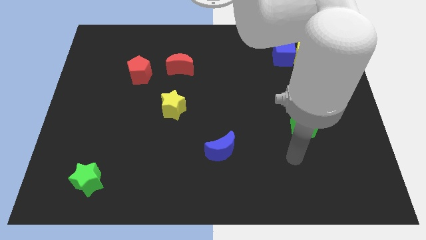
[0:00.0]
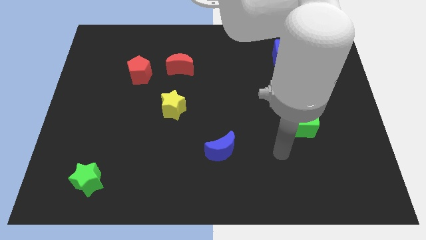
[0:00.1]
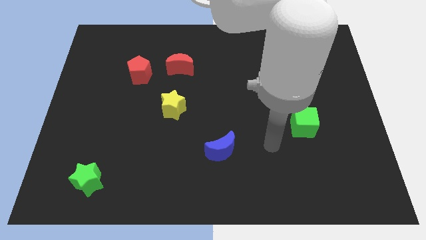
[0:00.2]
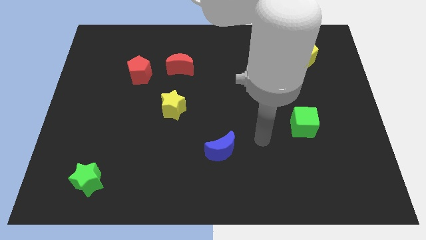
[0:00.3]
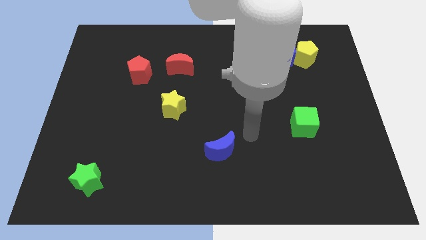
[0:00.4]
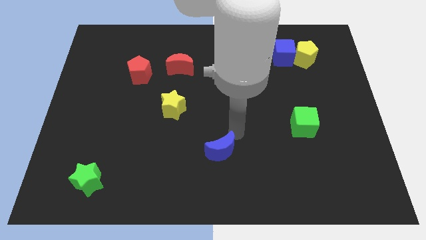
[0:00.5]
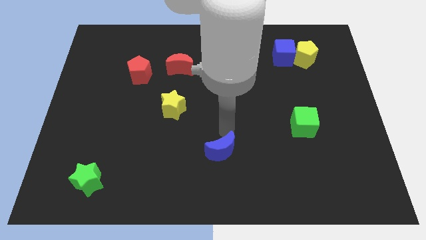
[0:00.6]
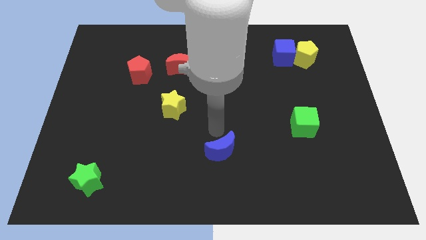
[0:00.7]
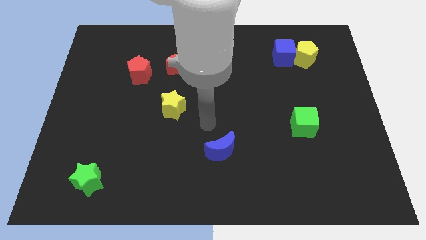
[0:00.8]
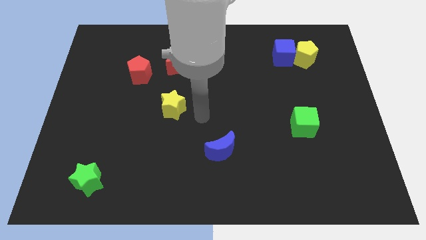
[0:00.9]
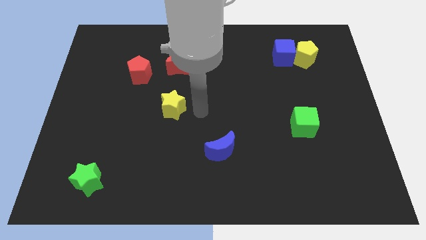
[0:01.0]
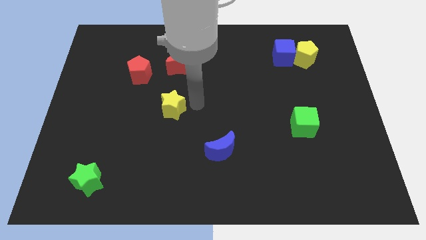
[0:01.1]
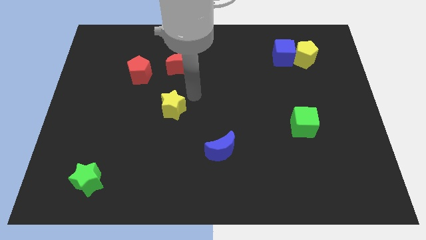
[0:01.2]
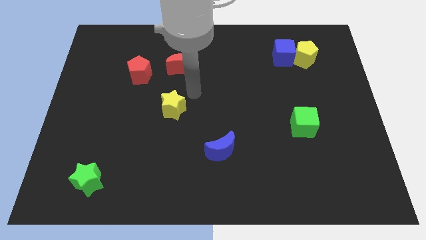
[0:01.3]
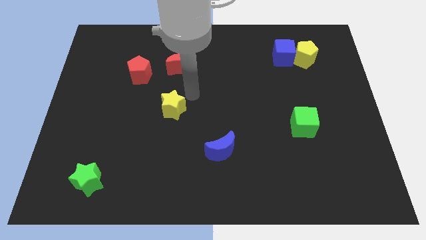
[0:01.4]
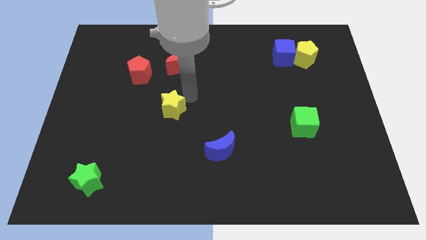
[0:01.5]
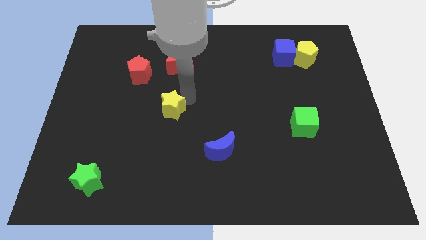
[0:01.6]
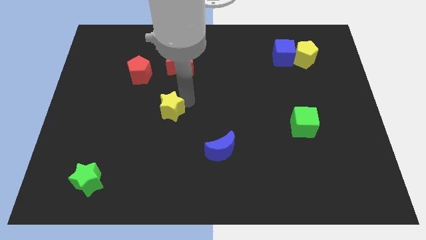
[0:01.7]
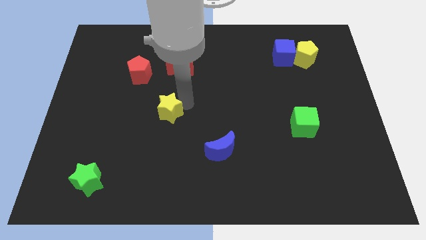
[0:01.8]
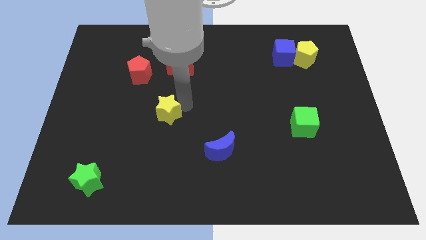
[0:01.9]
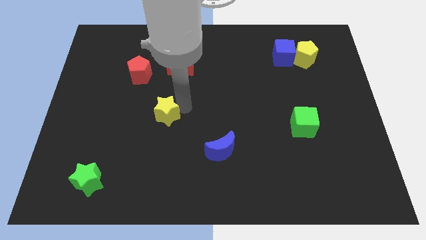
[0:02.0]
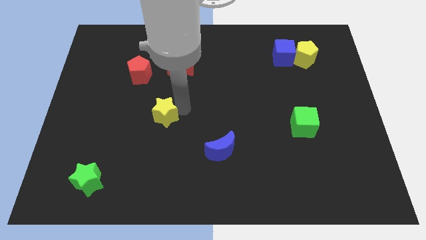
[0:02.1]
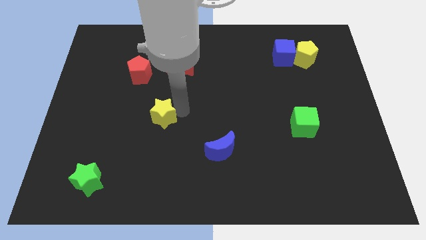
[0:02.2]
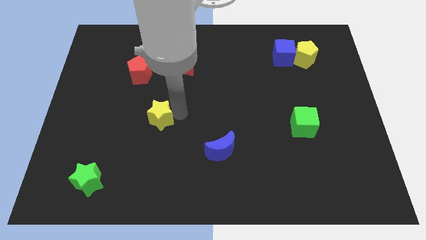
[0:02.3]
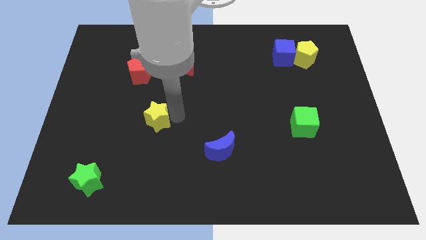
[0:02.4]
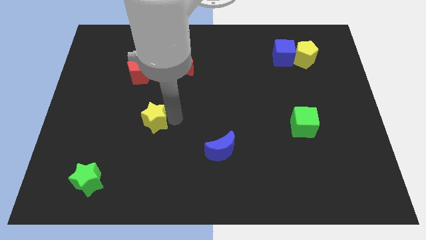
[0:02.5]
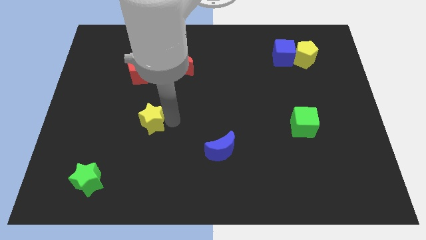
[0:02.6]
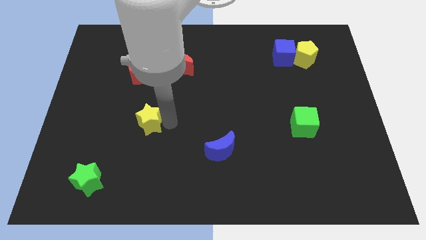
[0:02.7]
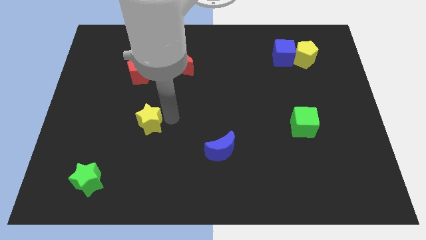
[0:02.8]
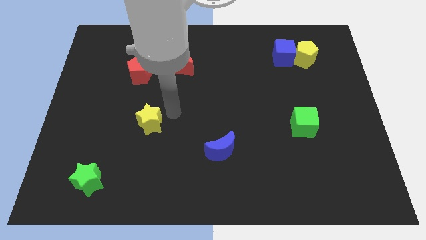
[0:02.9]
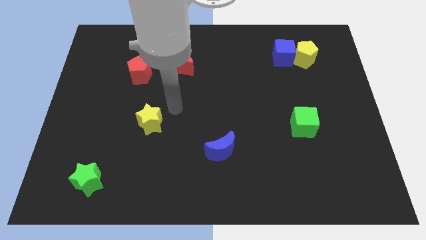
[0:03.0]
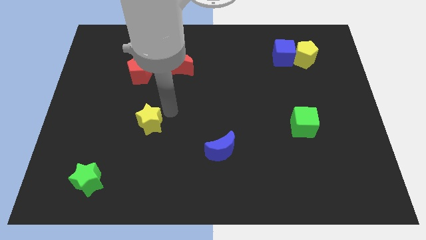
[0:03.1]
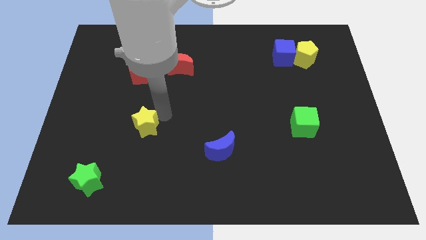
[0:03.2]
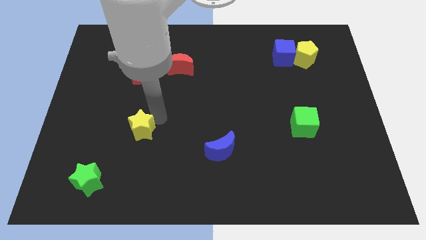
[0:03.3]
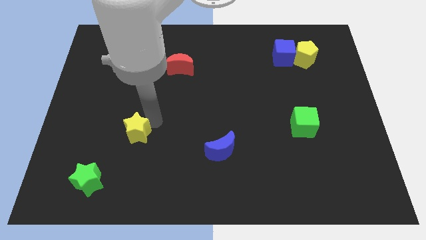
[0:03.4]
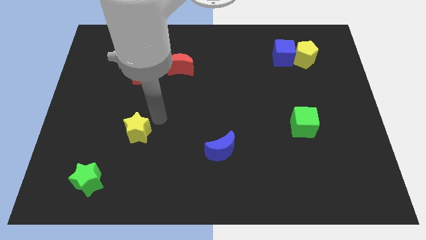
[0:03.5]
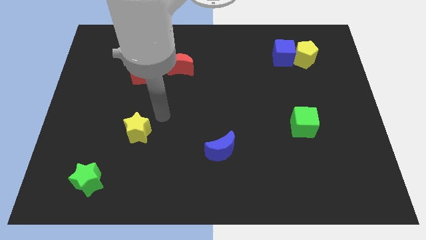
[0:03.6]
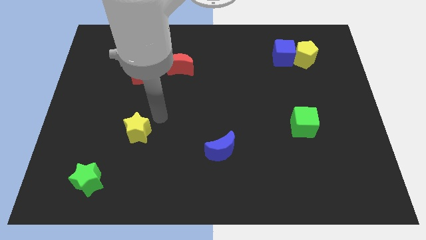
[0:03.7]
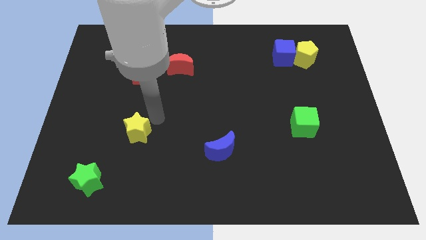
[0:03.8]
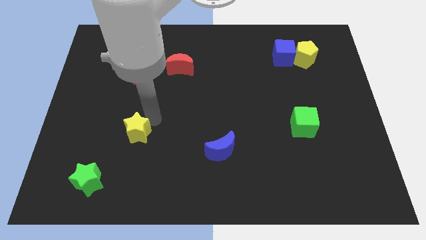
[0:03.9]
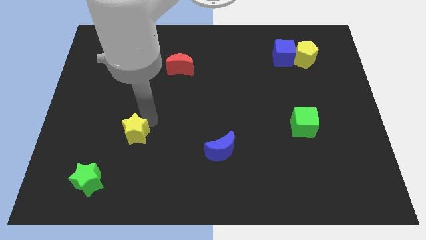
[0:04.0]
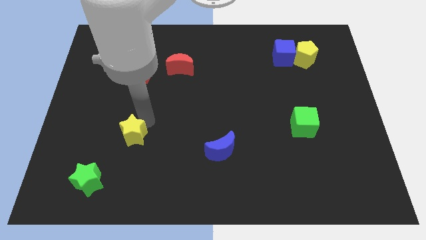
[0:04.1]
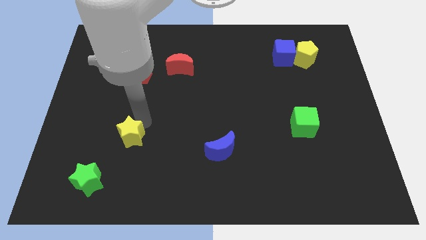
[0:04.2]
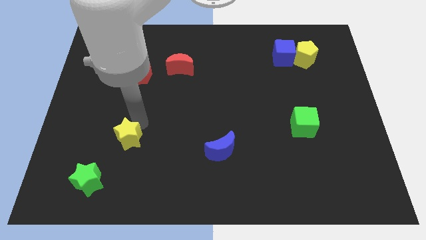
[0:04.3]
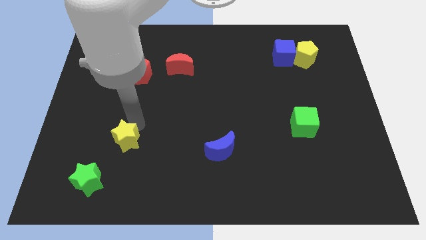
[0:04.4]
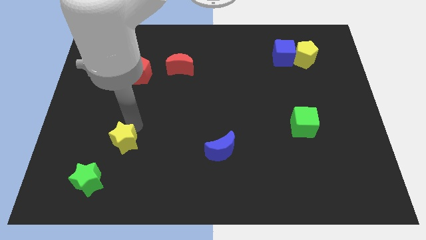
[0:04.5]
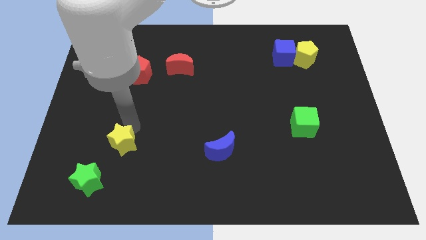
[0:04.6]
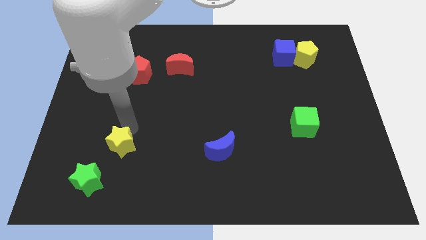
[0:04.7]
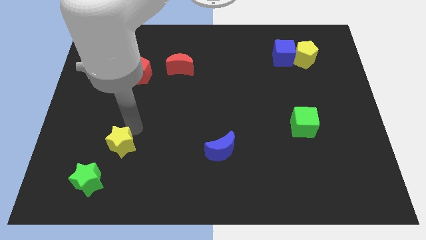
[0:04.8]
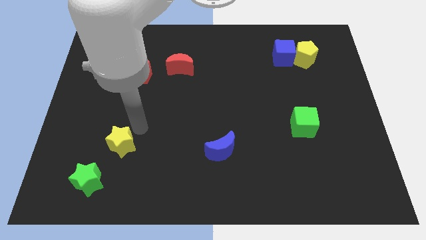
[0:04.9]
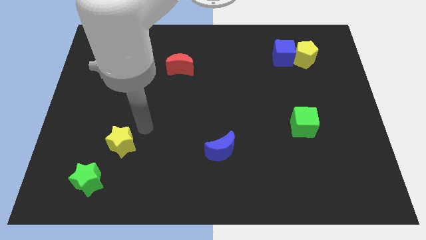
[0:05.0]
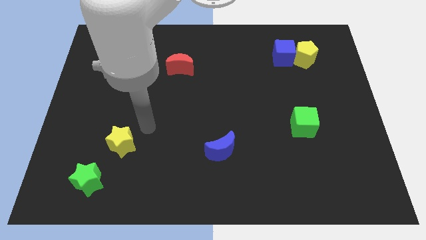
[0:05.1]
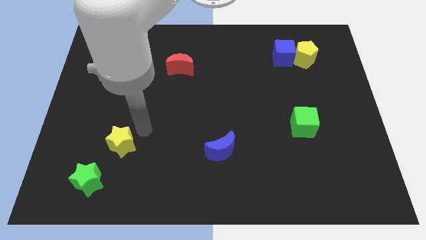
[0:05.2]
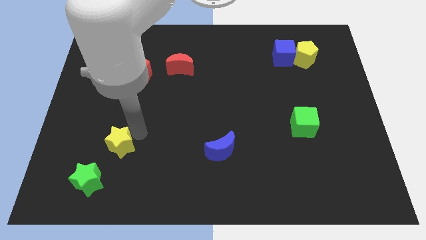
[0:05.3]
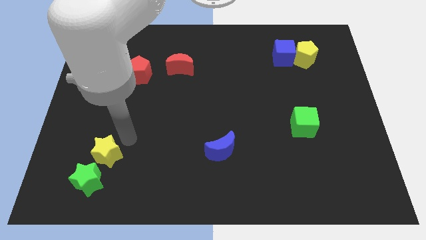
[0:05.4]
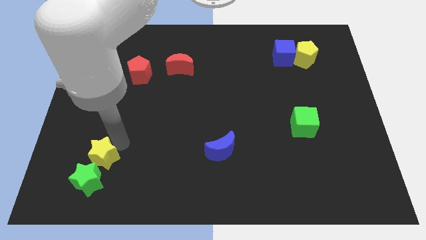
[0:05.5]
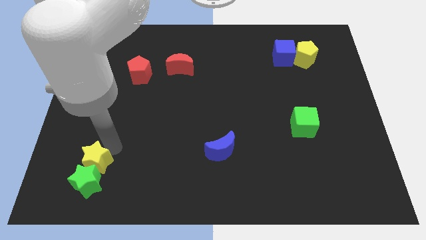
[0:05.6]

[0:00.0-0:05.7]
push the yellow star close to the green star

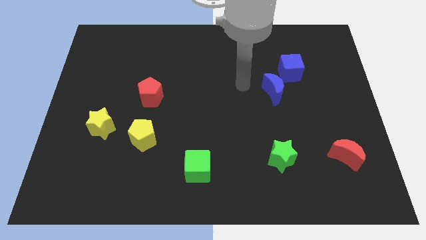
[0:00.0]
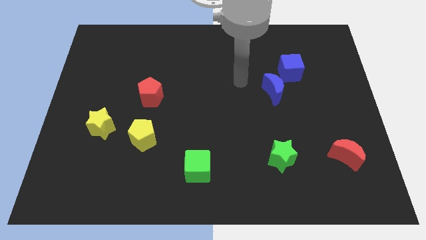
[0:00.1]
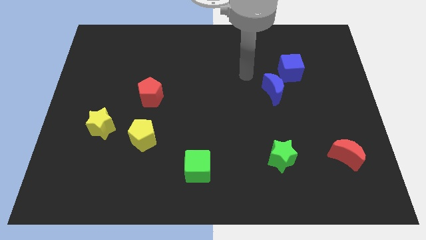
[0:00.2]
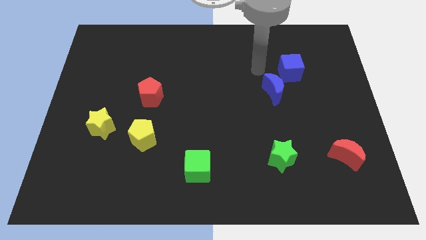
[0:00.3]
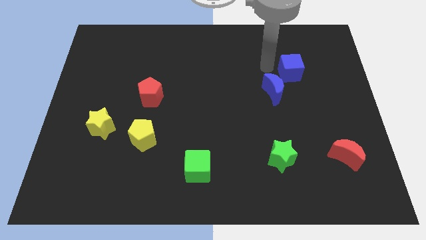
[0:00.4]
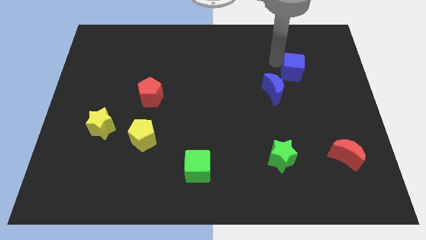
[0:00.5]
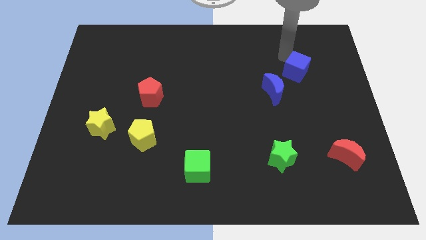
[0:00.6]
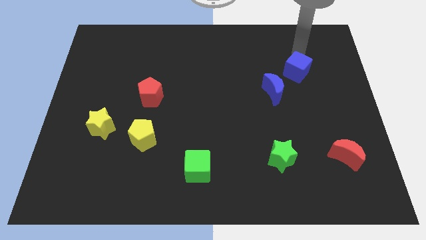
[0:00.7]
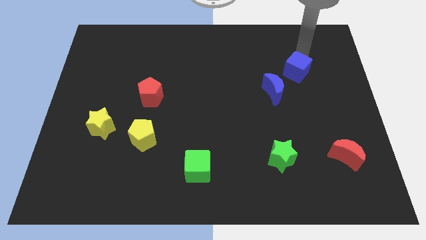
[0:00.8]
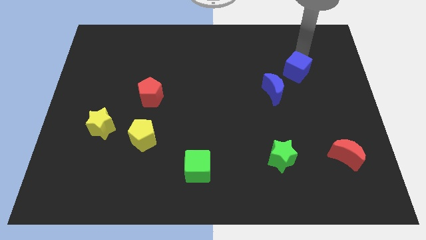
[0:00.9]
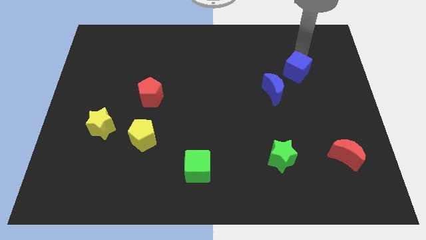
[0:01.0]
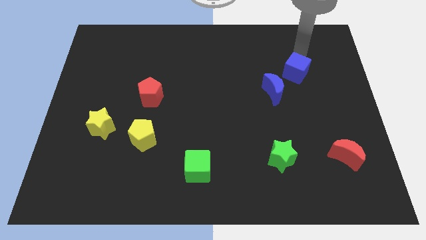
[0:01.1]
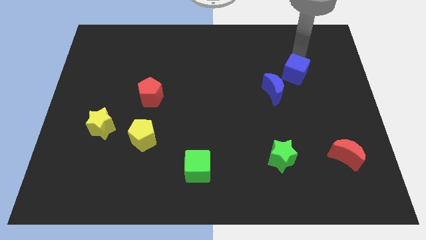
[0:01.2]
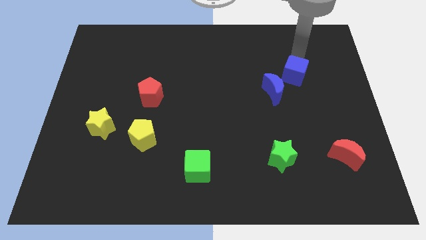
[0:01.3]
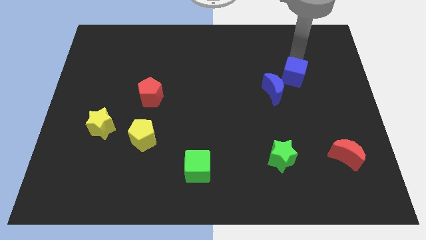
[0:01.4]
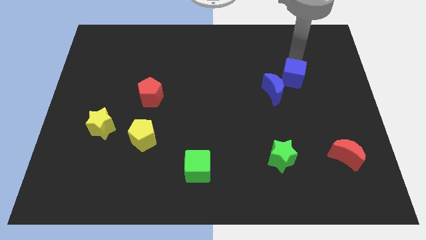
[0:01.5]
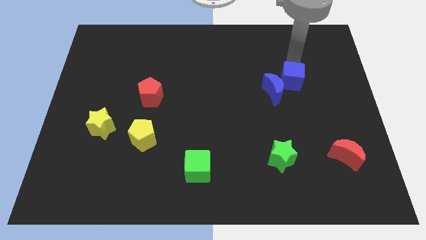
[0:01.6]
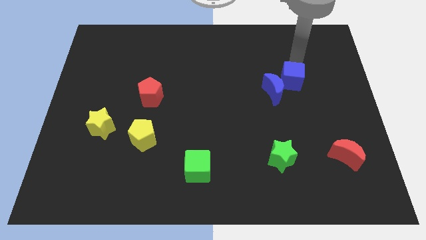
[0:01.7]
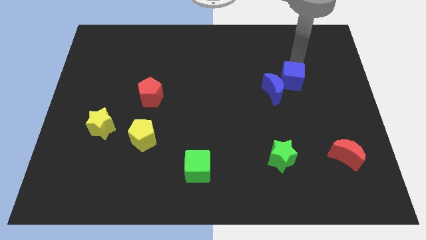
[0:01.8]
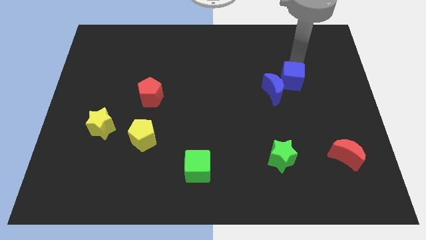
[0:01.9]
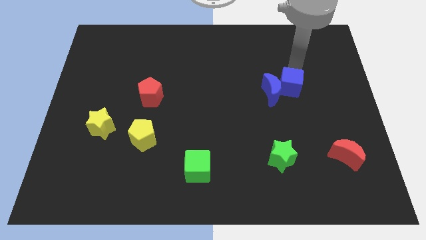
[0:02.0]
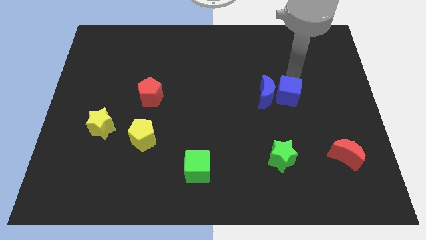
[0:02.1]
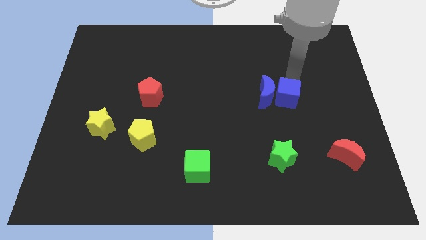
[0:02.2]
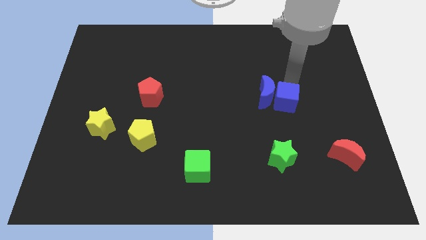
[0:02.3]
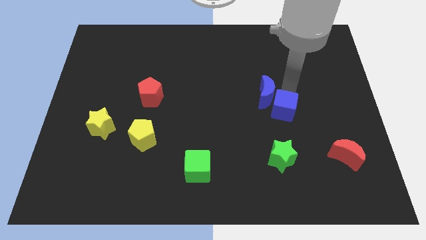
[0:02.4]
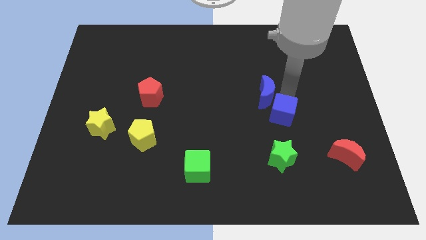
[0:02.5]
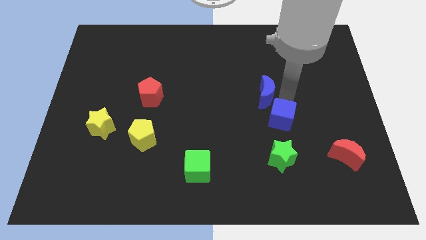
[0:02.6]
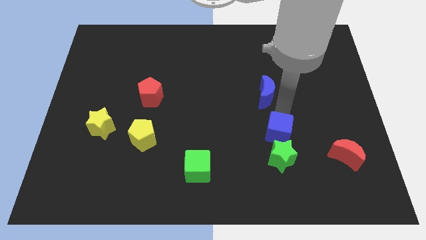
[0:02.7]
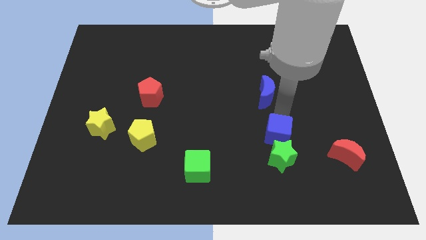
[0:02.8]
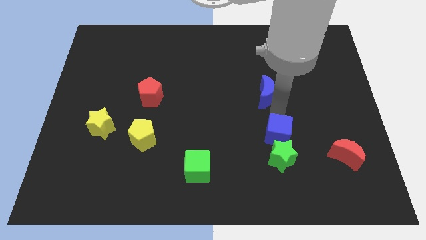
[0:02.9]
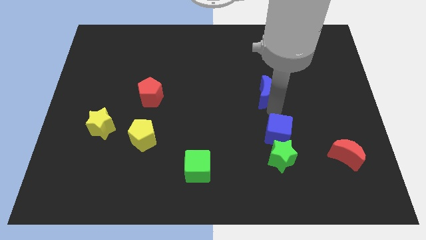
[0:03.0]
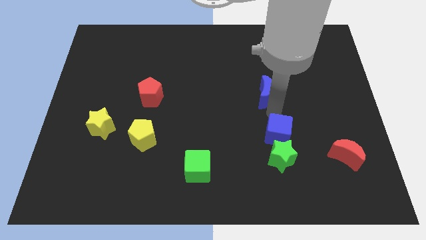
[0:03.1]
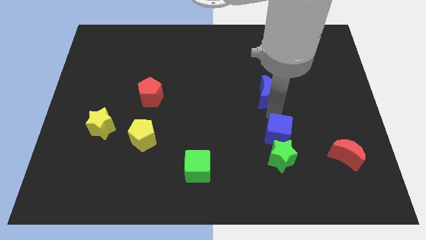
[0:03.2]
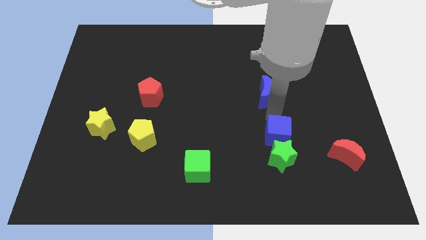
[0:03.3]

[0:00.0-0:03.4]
slide the blue cube close to the green star
